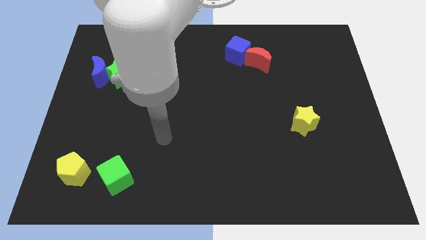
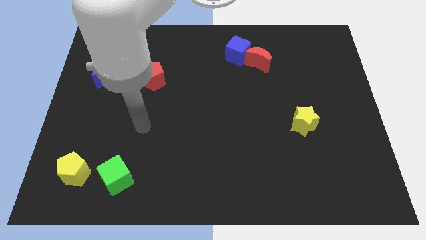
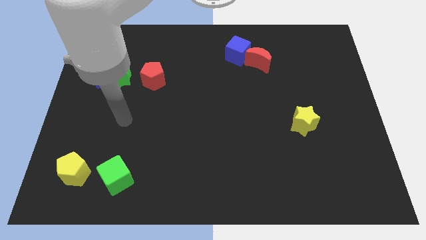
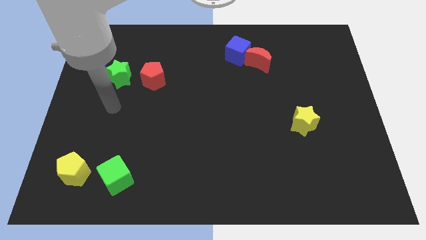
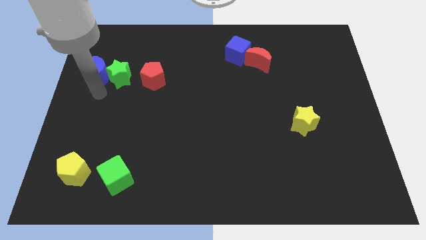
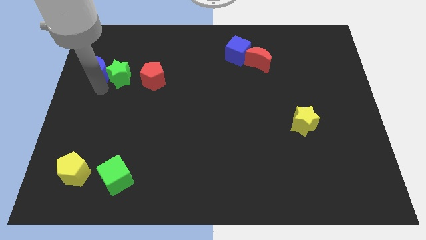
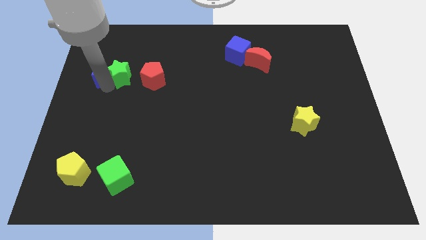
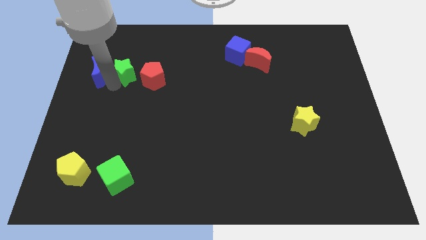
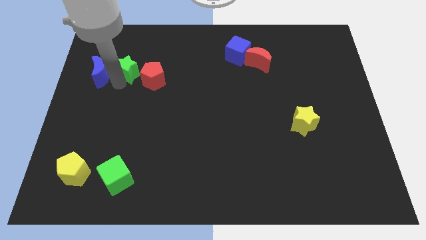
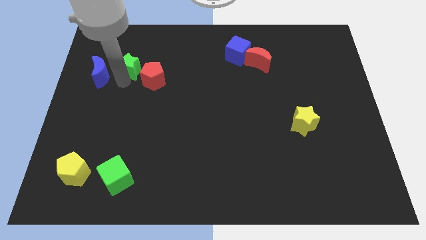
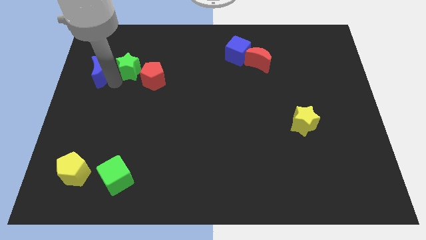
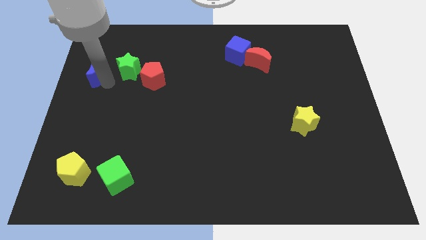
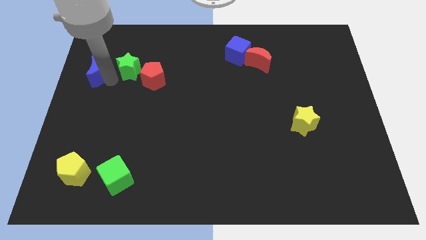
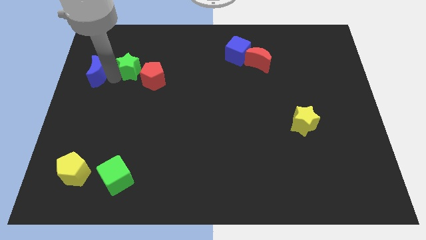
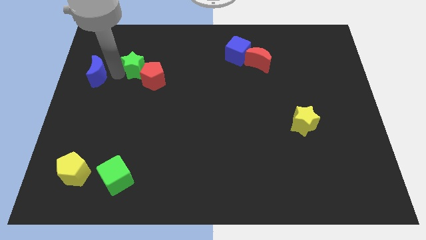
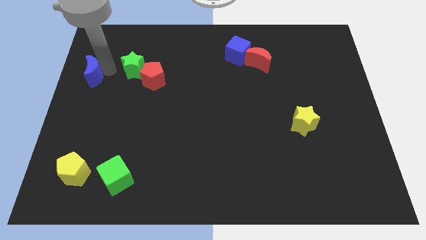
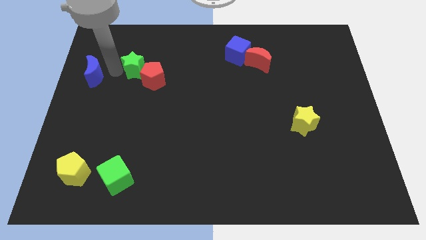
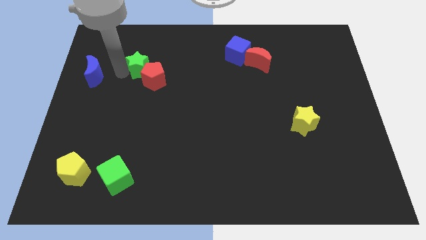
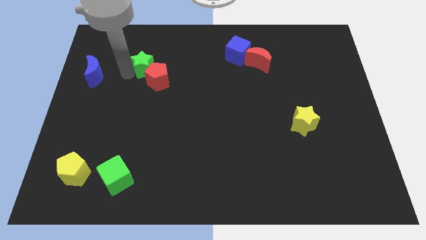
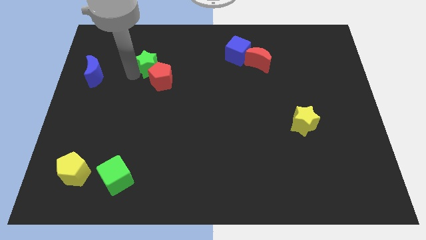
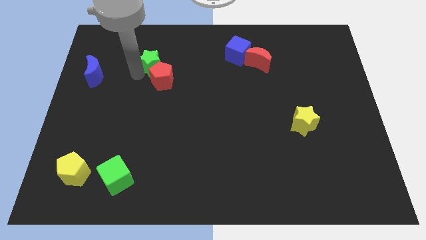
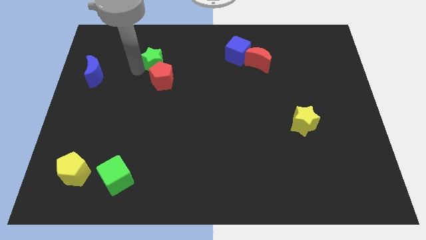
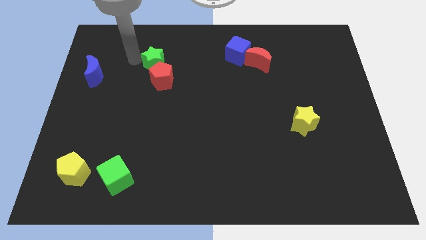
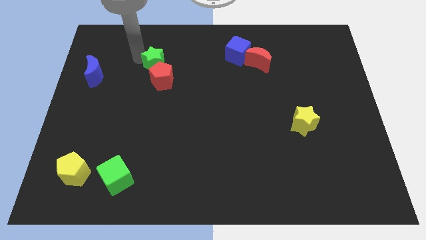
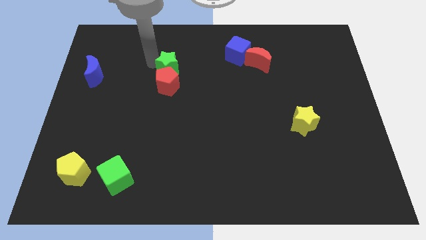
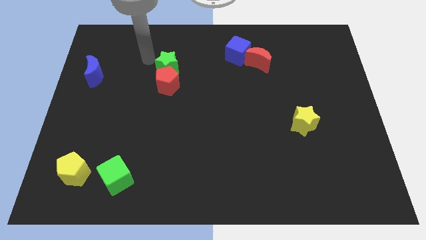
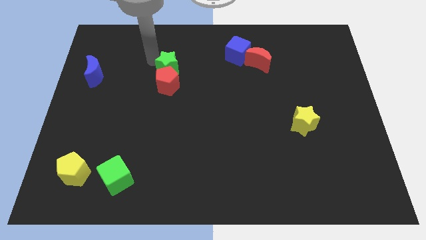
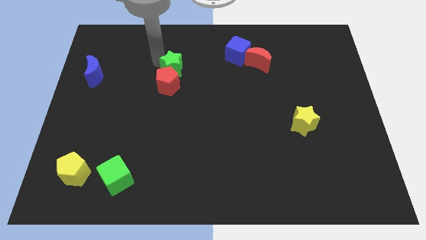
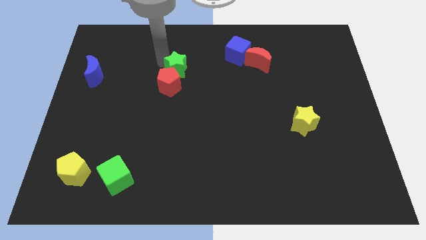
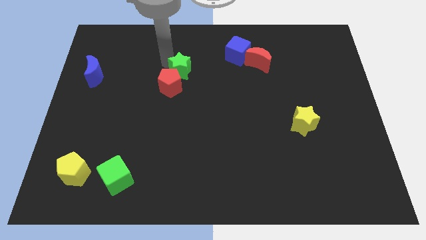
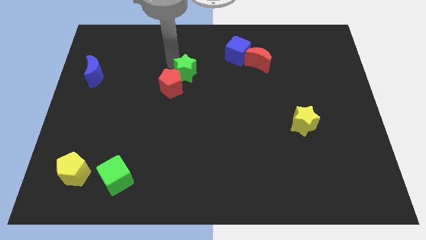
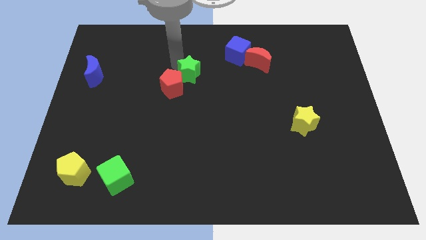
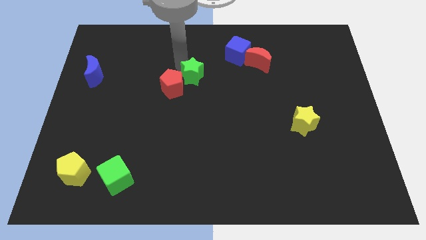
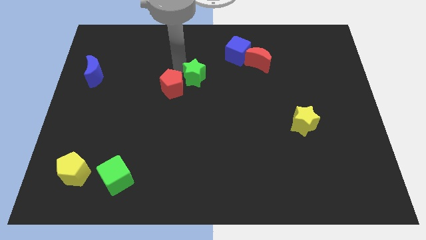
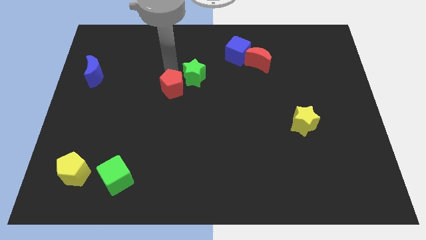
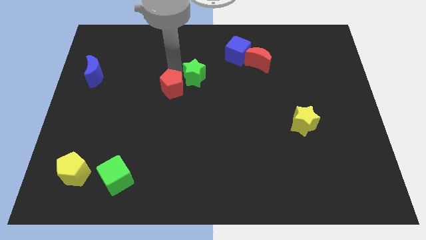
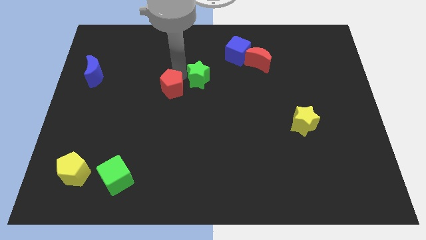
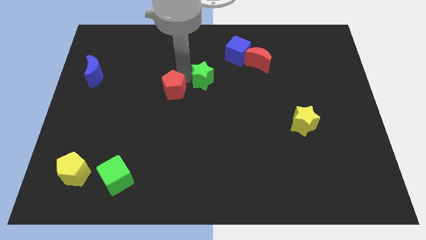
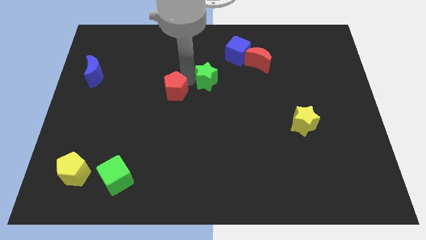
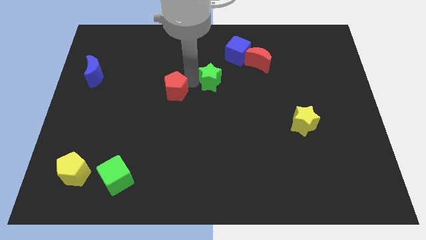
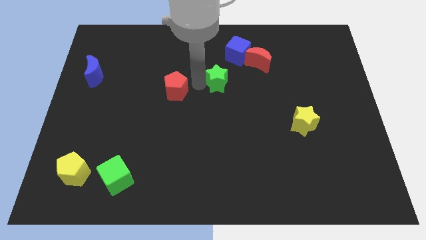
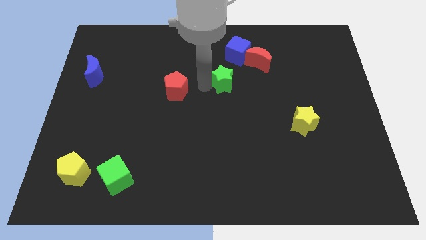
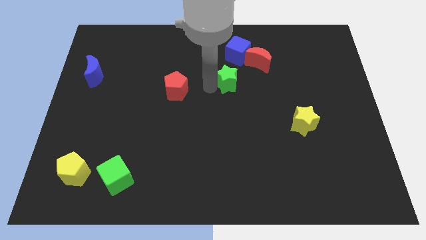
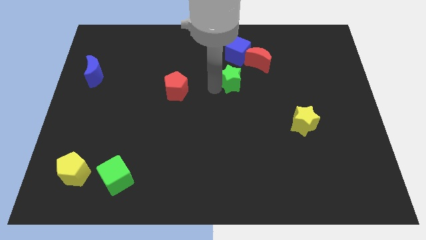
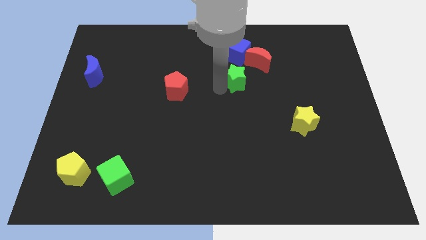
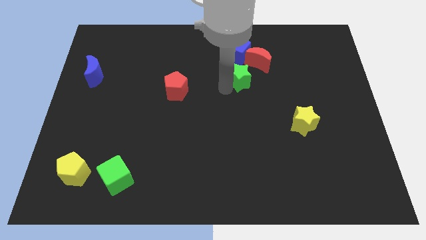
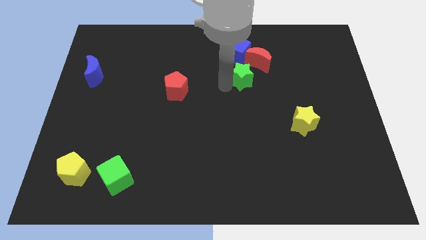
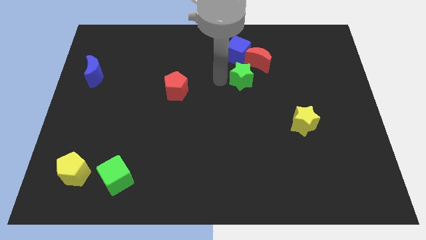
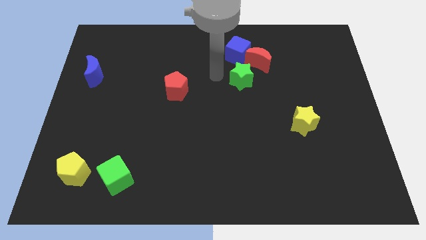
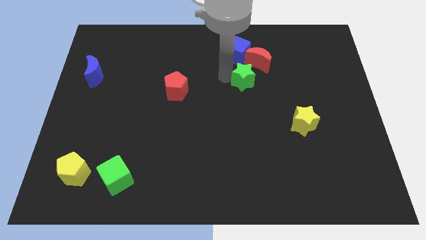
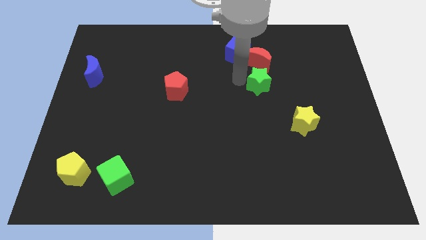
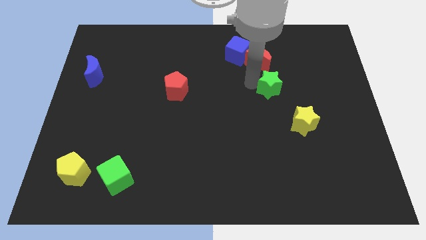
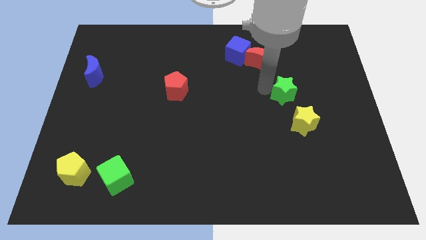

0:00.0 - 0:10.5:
move the green star to the top side of the yellow star

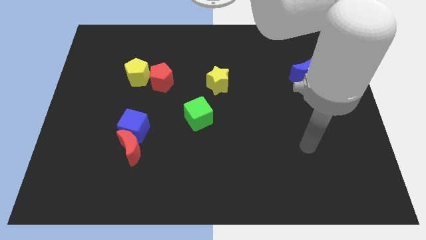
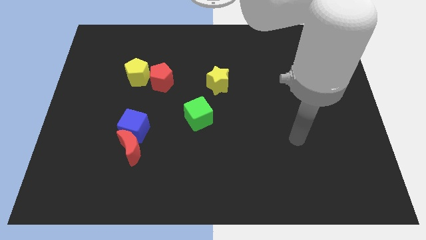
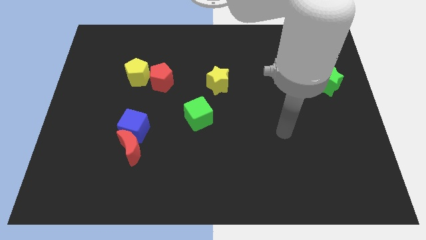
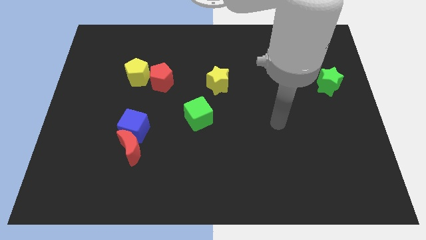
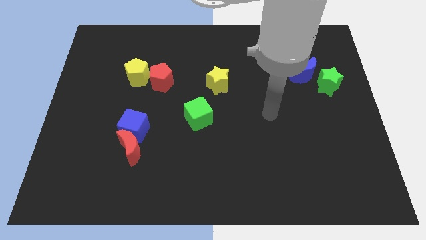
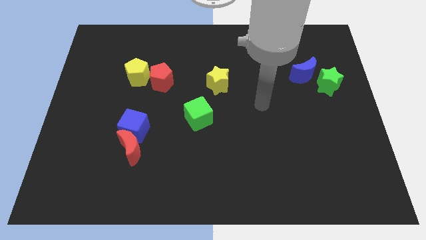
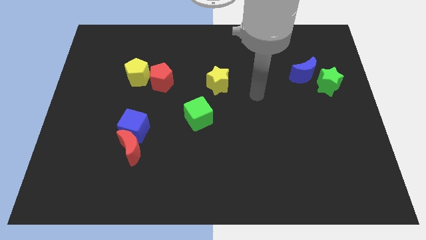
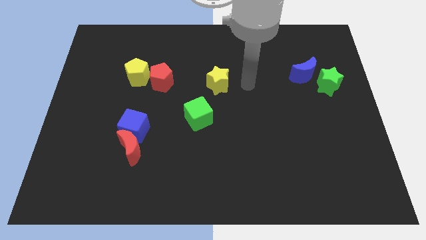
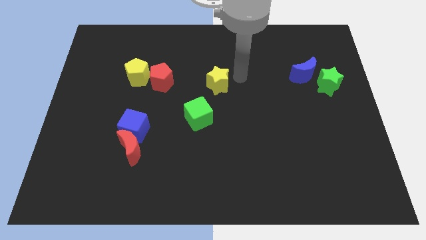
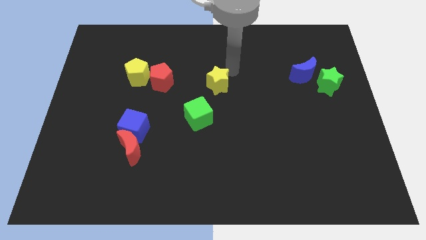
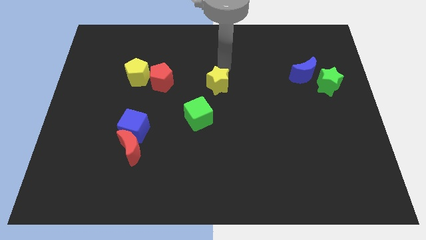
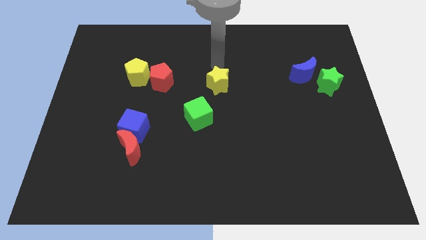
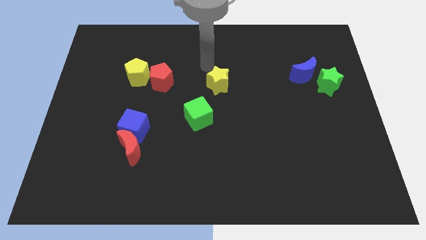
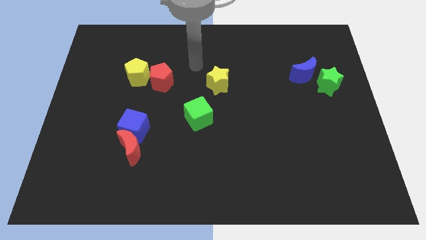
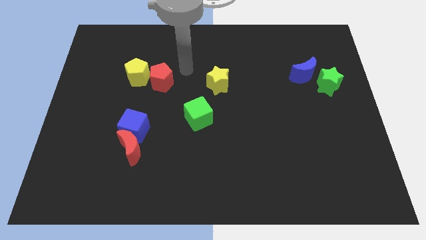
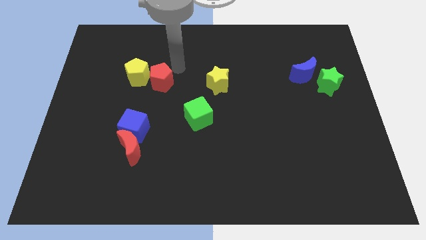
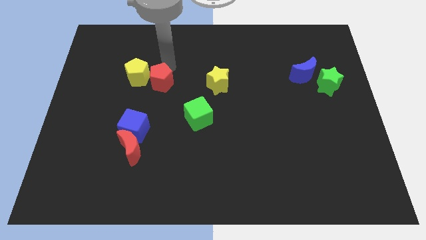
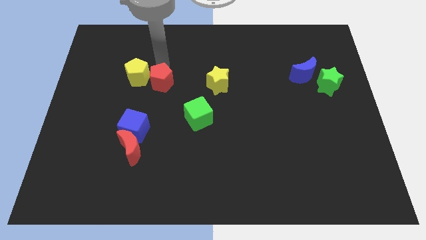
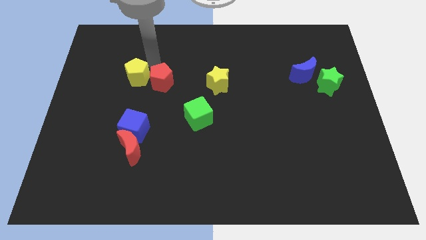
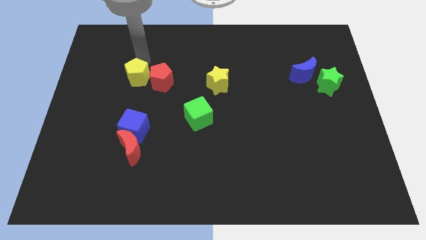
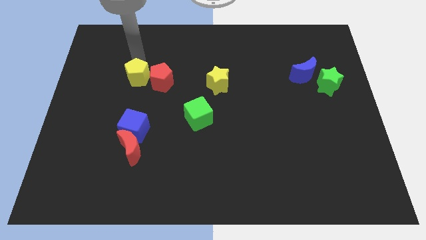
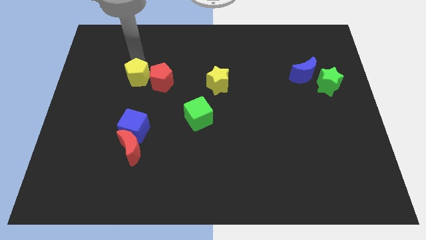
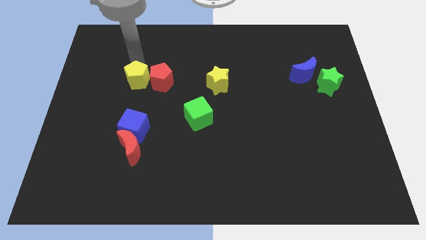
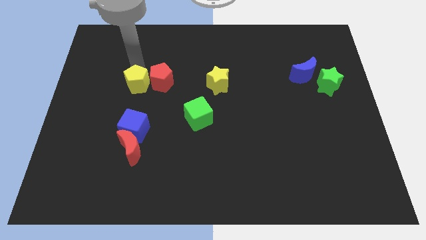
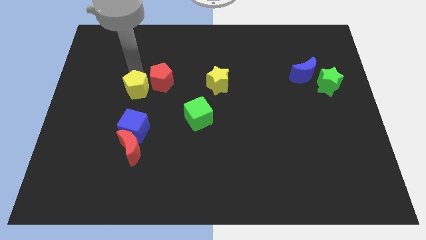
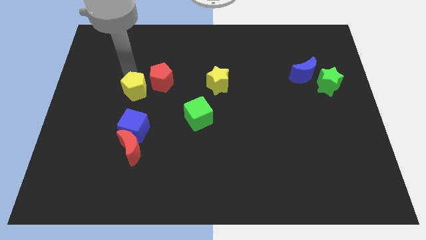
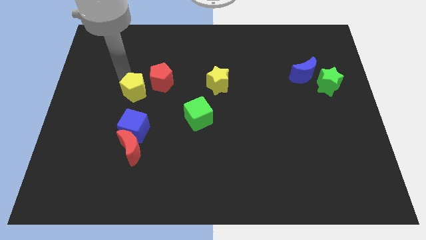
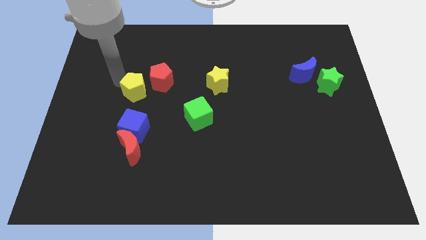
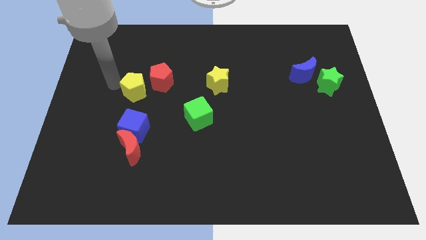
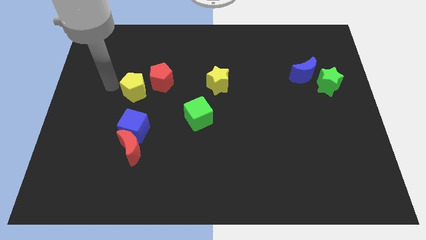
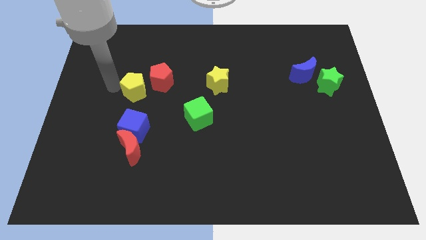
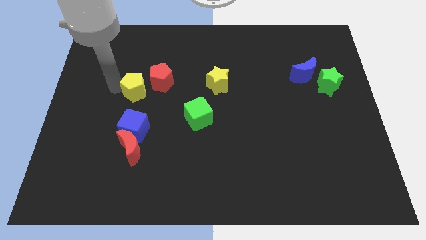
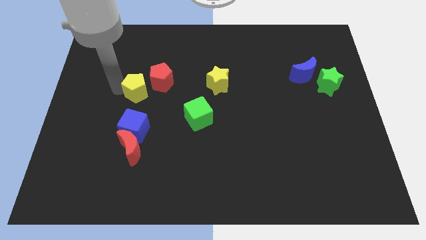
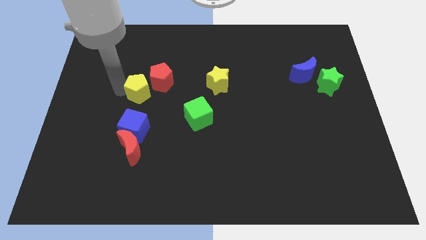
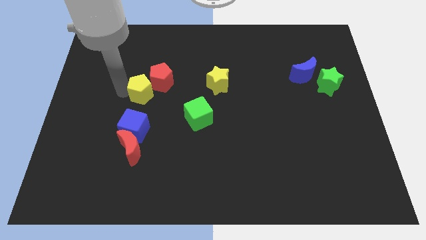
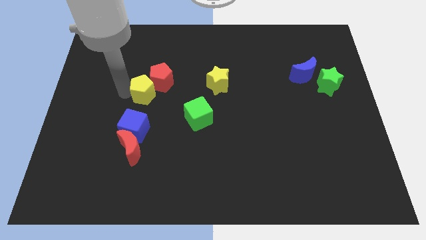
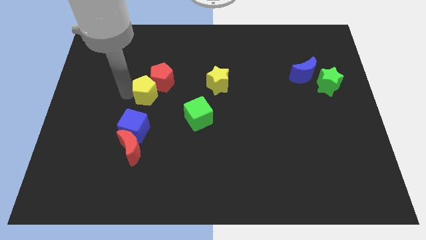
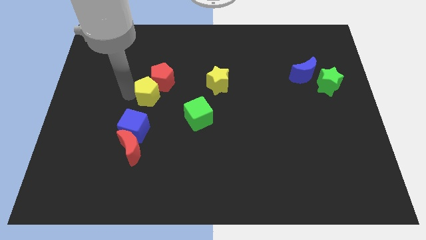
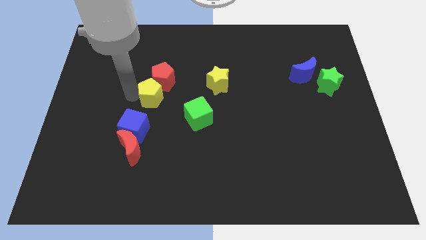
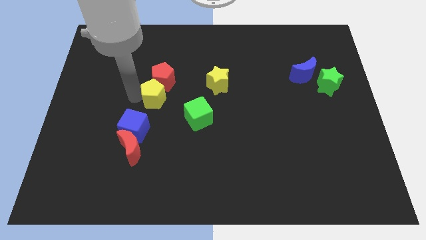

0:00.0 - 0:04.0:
slide the yellow pentagon to the bottom right side of the red pentagon
